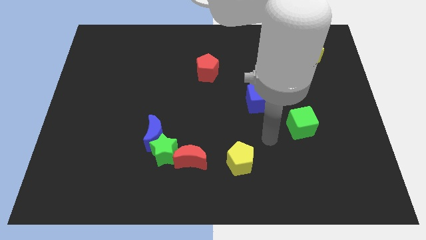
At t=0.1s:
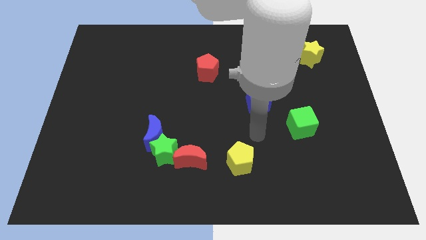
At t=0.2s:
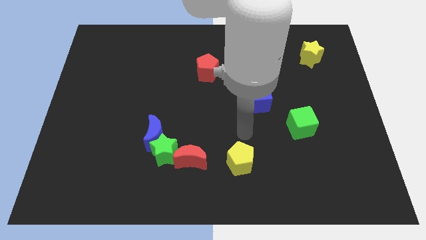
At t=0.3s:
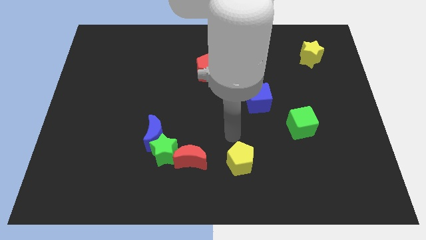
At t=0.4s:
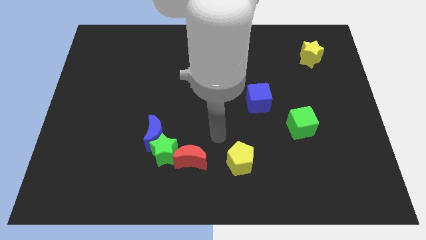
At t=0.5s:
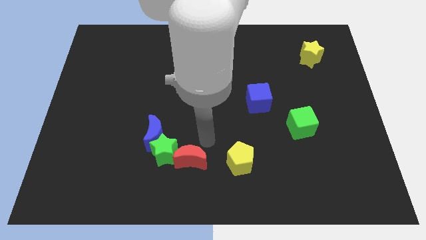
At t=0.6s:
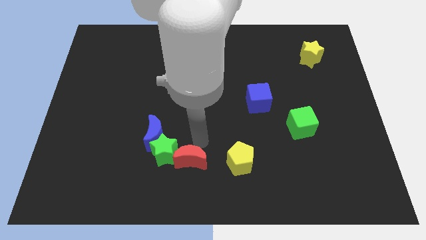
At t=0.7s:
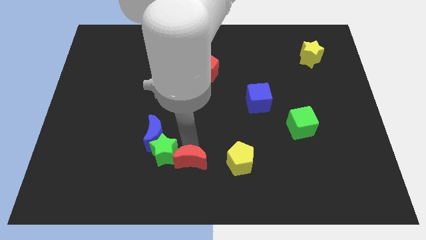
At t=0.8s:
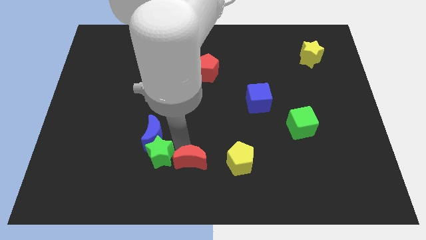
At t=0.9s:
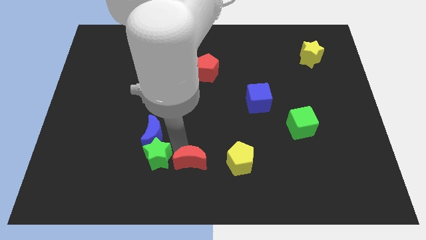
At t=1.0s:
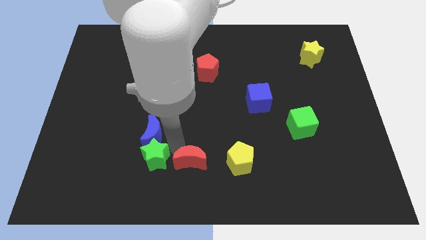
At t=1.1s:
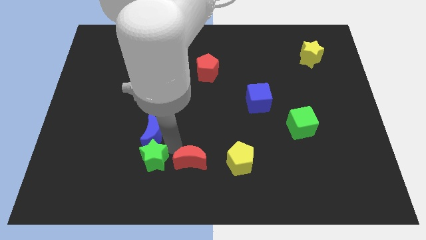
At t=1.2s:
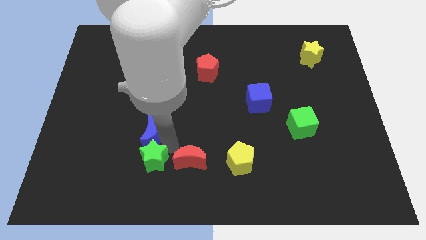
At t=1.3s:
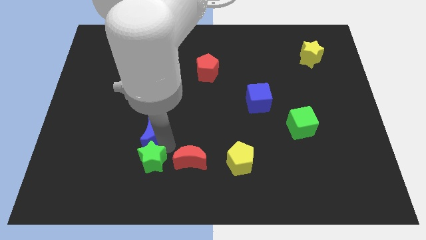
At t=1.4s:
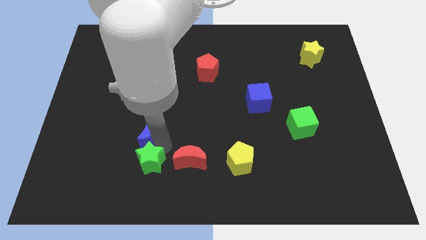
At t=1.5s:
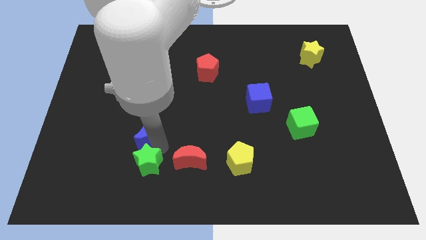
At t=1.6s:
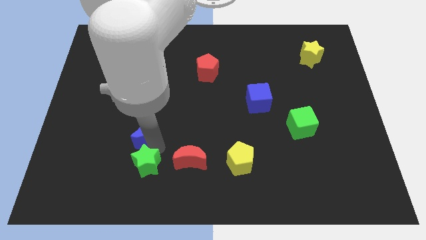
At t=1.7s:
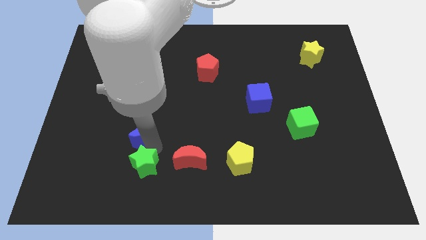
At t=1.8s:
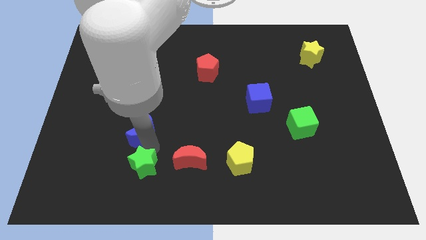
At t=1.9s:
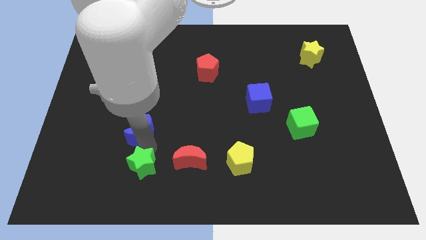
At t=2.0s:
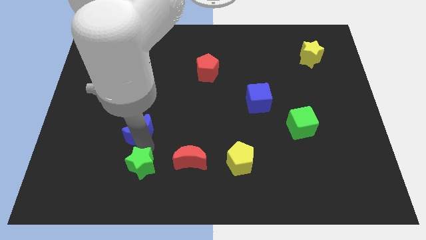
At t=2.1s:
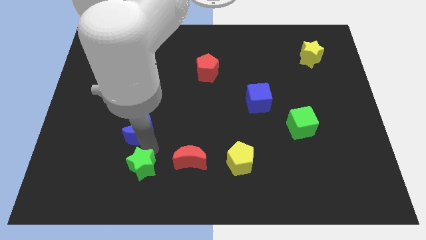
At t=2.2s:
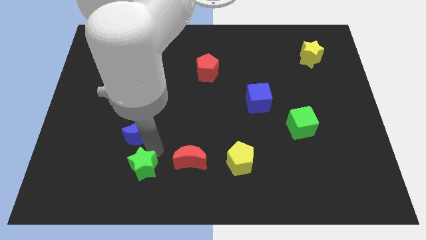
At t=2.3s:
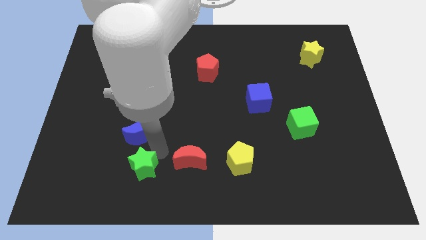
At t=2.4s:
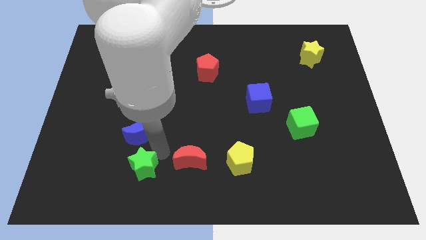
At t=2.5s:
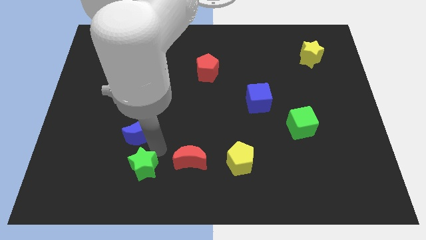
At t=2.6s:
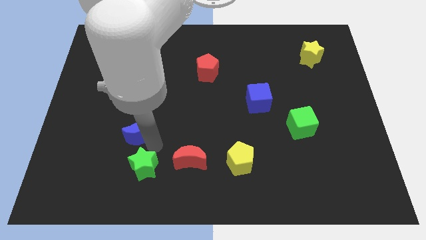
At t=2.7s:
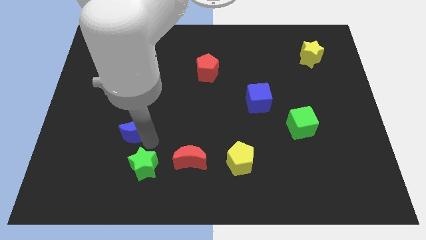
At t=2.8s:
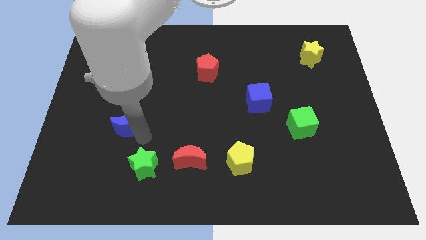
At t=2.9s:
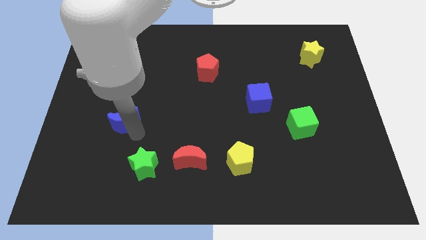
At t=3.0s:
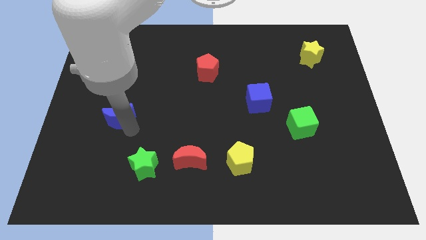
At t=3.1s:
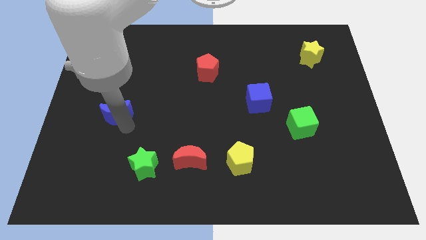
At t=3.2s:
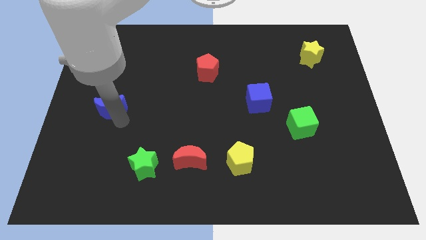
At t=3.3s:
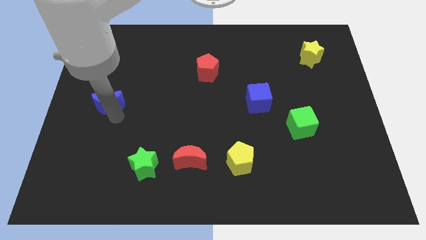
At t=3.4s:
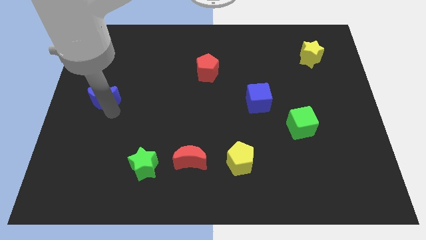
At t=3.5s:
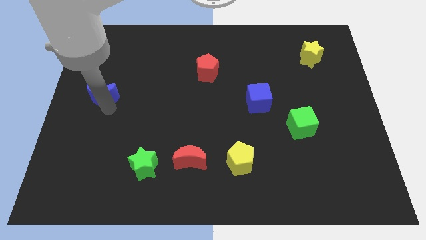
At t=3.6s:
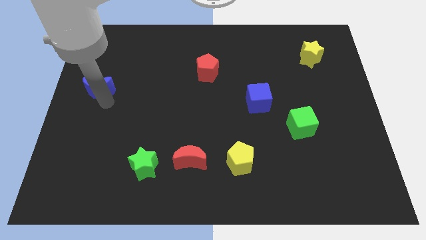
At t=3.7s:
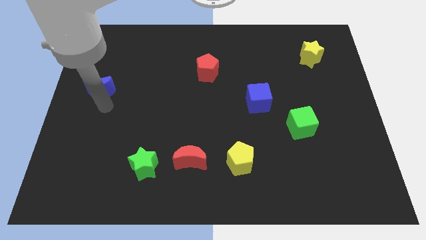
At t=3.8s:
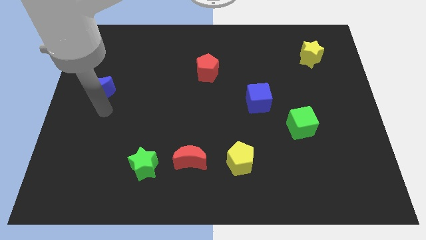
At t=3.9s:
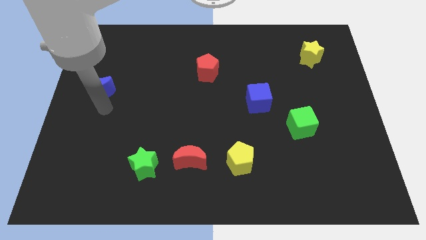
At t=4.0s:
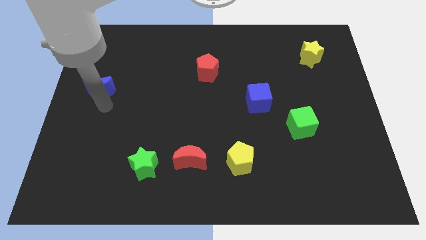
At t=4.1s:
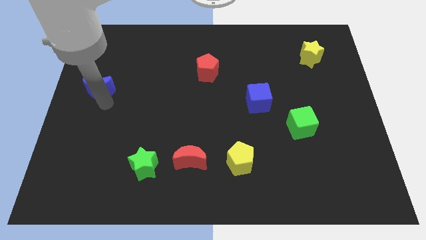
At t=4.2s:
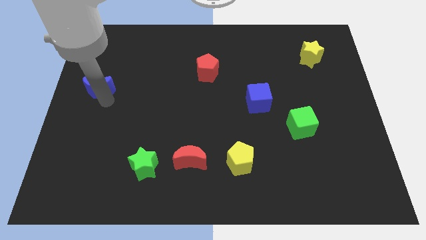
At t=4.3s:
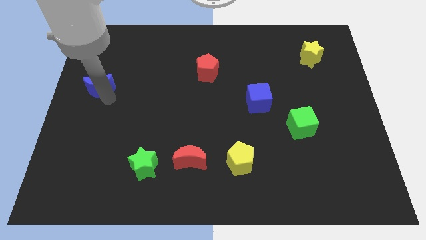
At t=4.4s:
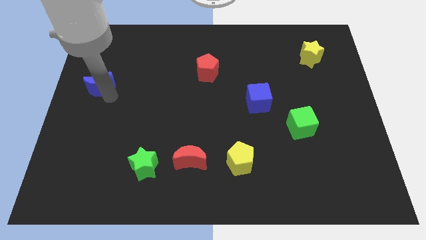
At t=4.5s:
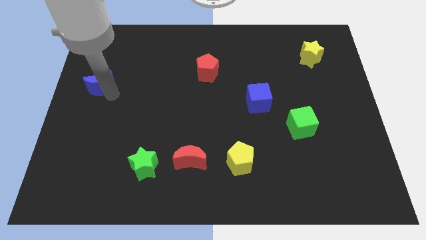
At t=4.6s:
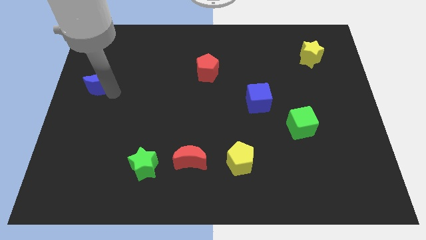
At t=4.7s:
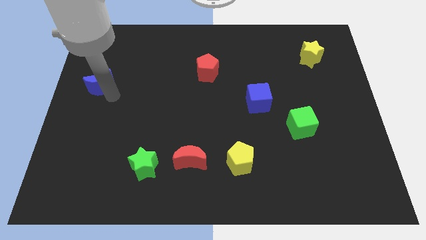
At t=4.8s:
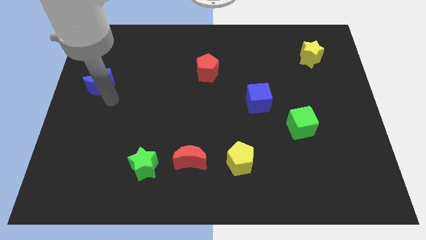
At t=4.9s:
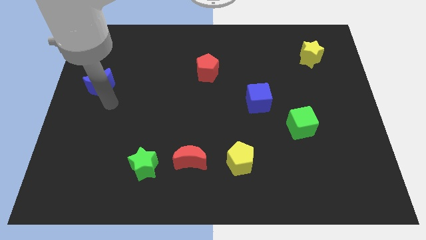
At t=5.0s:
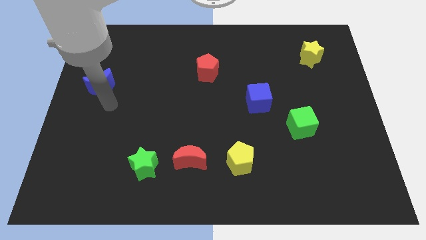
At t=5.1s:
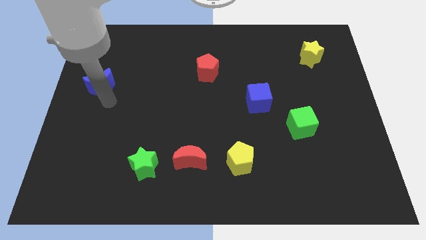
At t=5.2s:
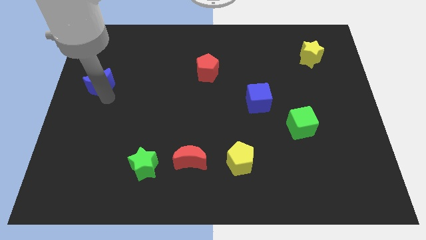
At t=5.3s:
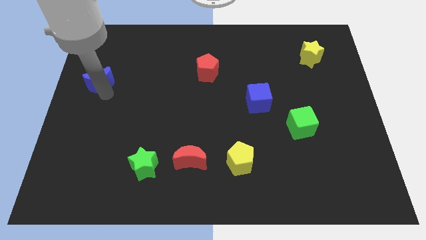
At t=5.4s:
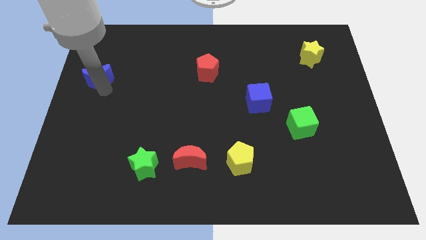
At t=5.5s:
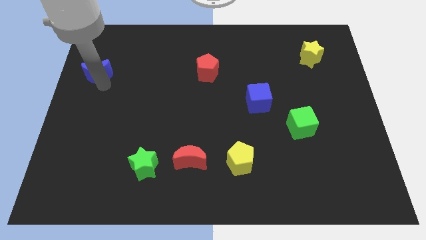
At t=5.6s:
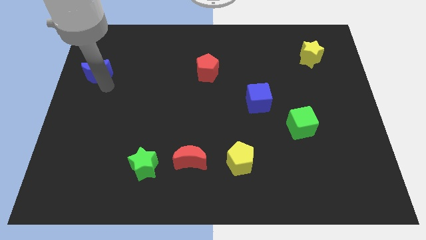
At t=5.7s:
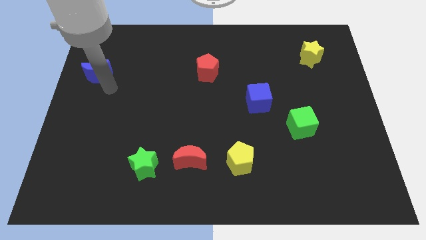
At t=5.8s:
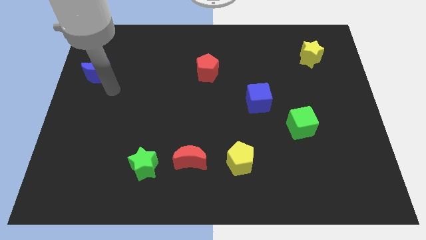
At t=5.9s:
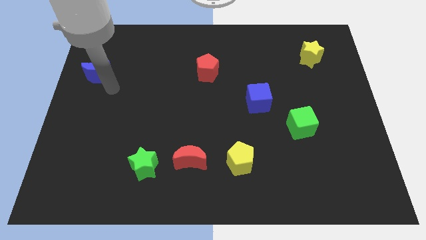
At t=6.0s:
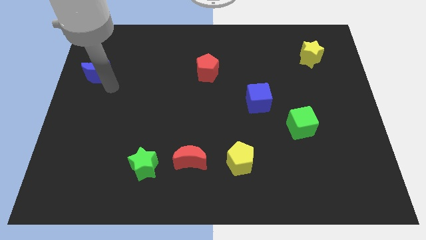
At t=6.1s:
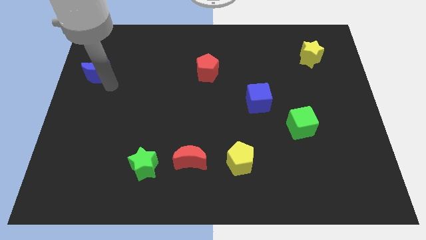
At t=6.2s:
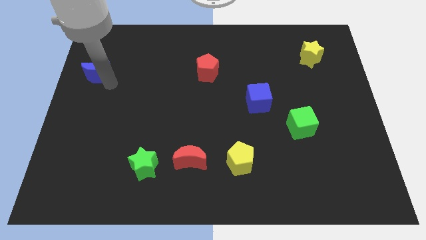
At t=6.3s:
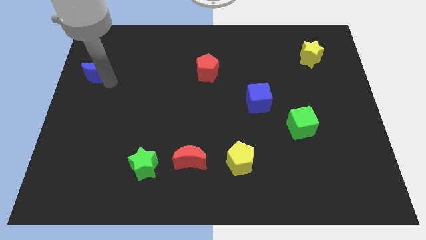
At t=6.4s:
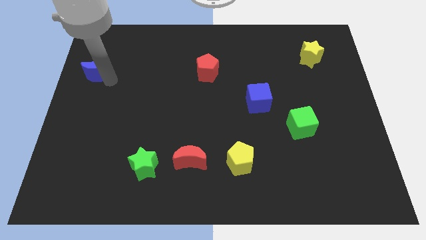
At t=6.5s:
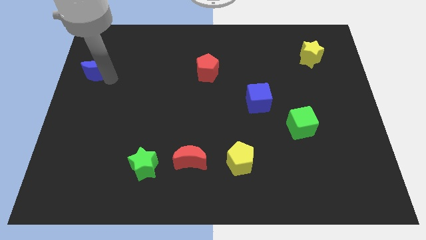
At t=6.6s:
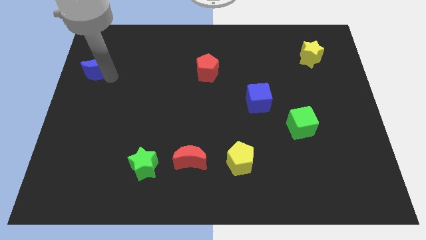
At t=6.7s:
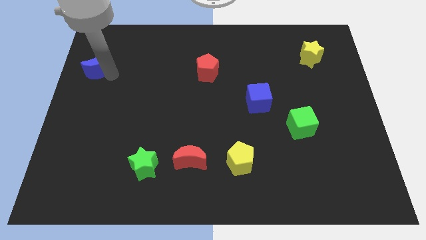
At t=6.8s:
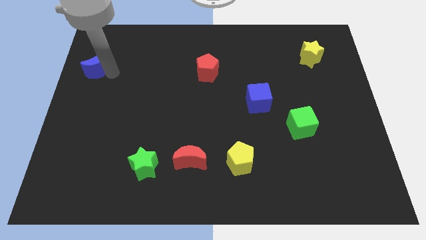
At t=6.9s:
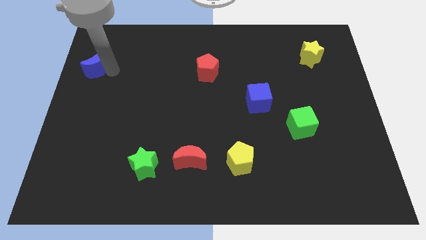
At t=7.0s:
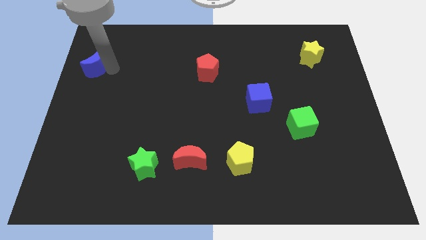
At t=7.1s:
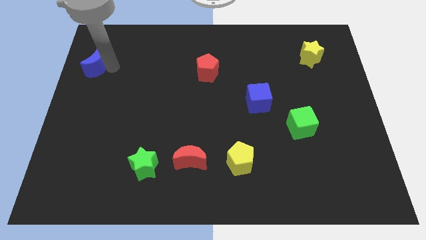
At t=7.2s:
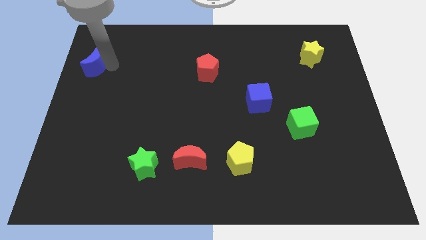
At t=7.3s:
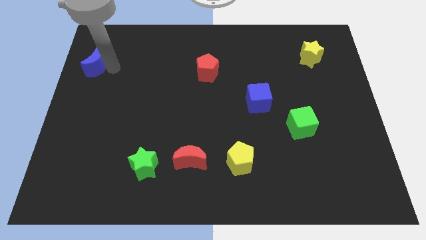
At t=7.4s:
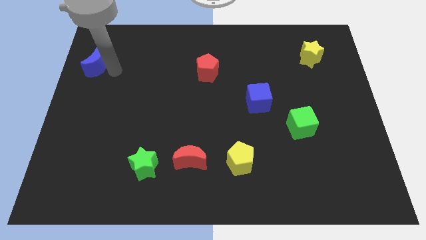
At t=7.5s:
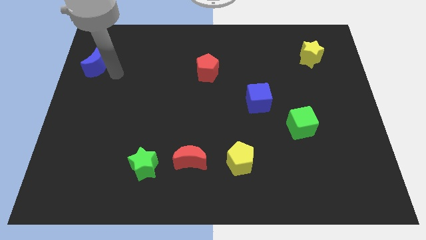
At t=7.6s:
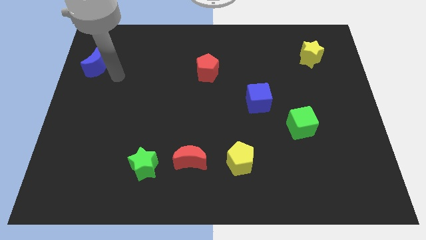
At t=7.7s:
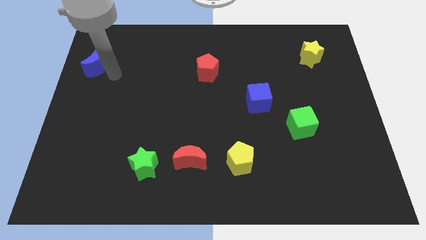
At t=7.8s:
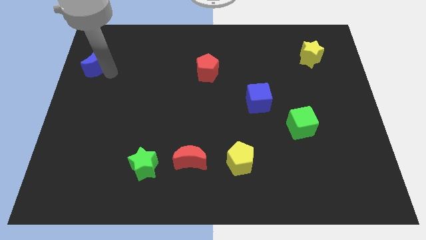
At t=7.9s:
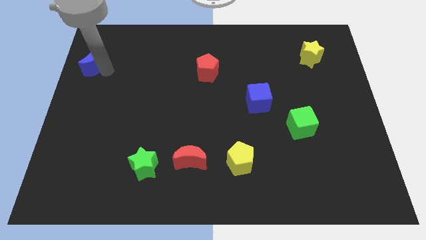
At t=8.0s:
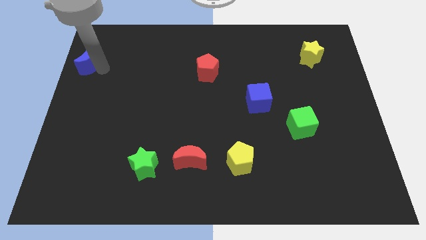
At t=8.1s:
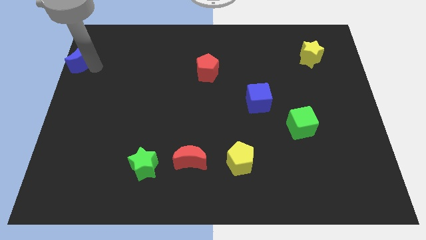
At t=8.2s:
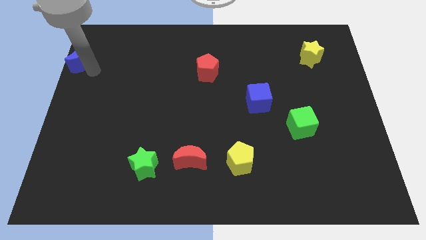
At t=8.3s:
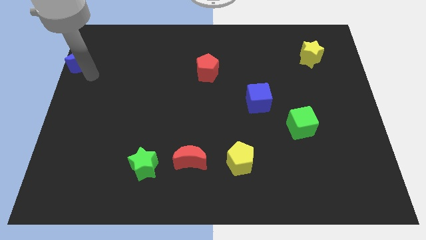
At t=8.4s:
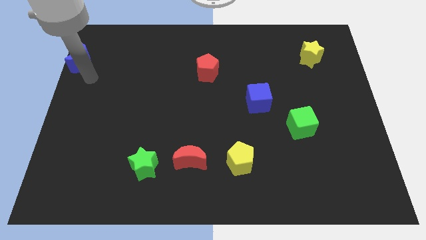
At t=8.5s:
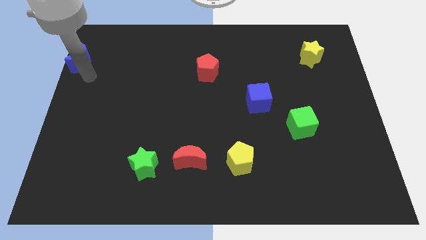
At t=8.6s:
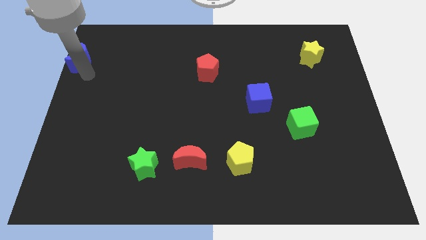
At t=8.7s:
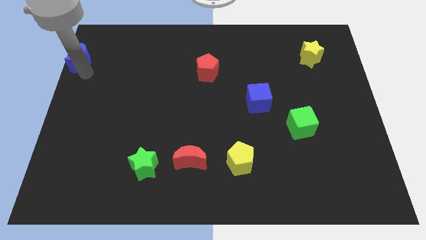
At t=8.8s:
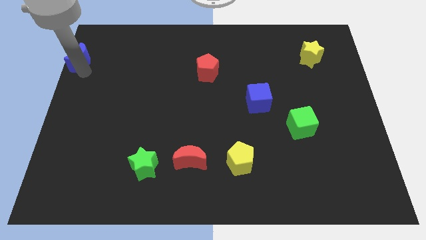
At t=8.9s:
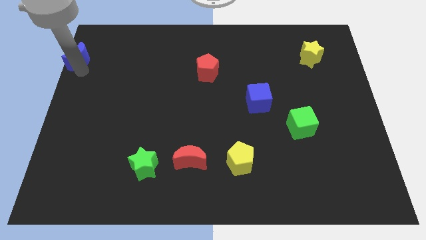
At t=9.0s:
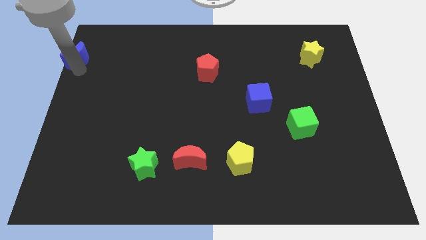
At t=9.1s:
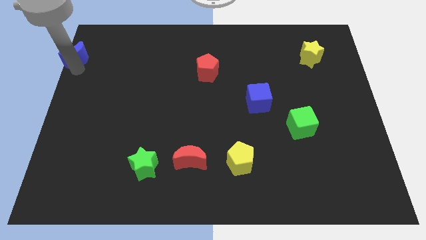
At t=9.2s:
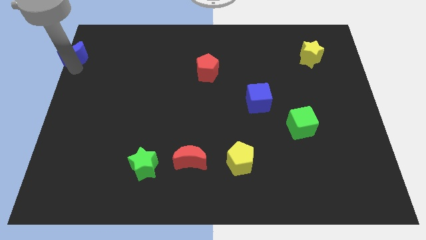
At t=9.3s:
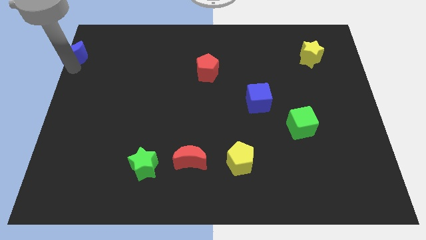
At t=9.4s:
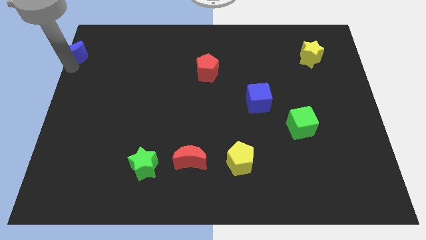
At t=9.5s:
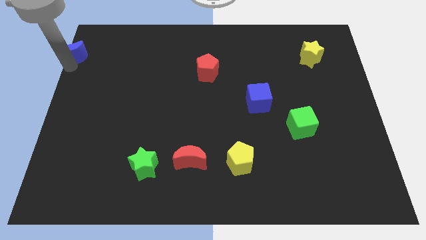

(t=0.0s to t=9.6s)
put the blue moon to the top left corner
